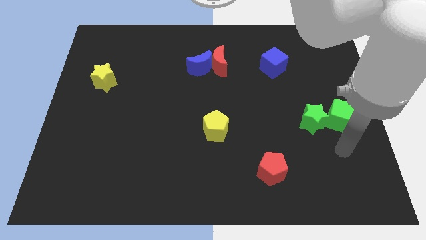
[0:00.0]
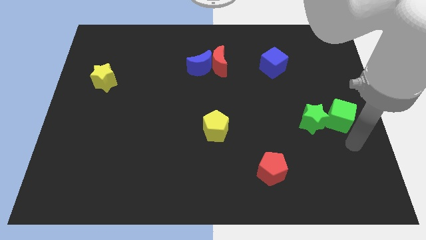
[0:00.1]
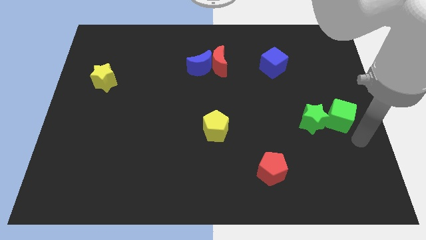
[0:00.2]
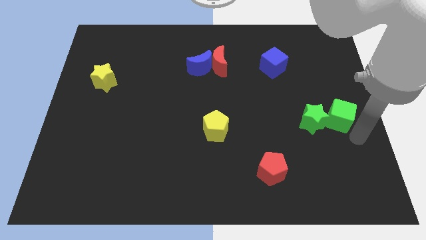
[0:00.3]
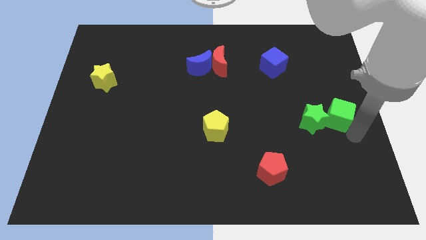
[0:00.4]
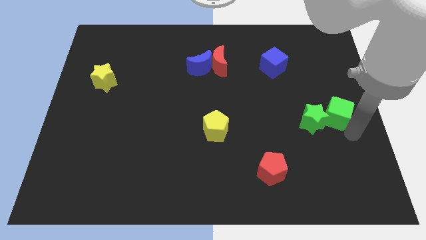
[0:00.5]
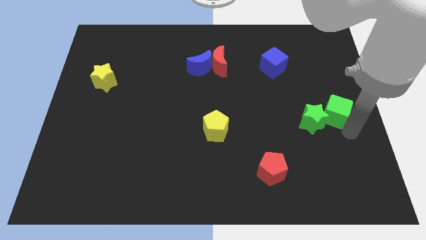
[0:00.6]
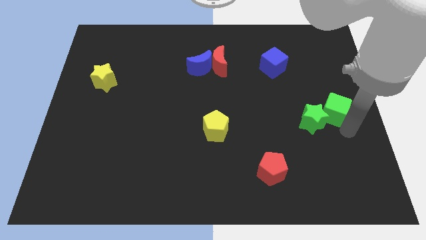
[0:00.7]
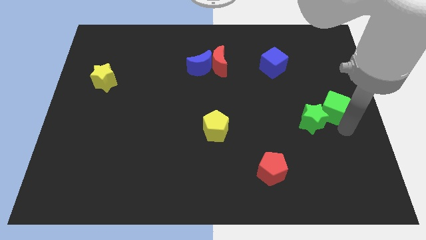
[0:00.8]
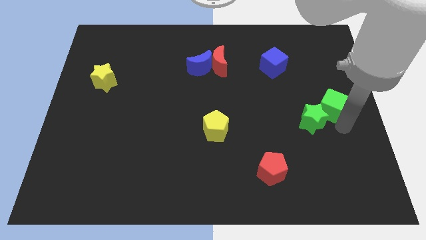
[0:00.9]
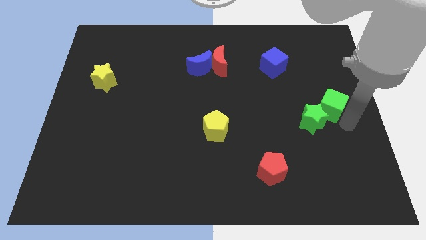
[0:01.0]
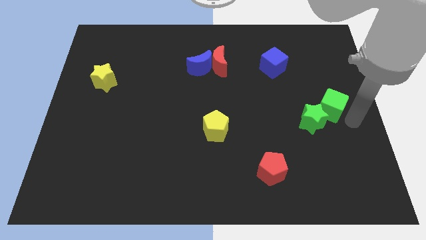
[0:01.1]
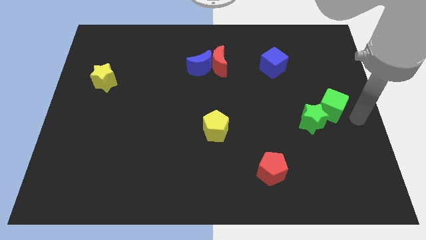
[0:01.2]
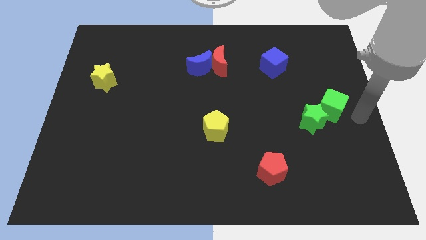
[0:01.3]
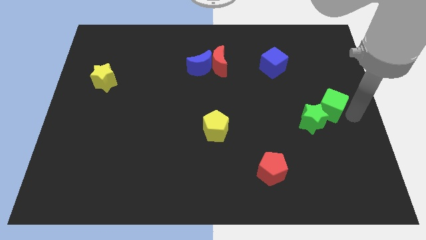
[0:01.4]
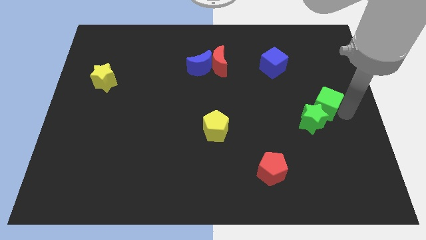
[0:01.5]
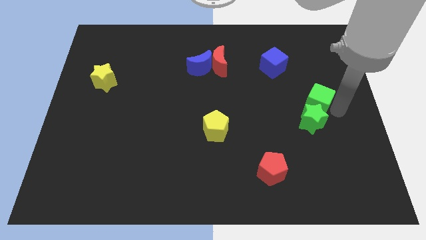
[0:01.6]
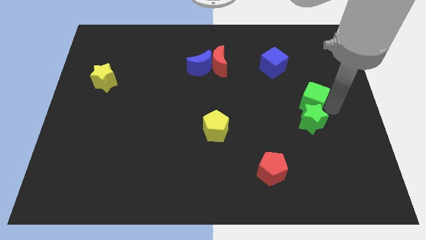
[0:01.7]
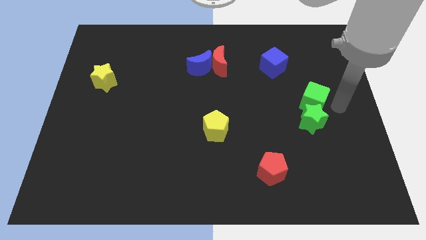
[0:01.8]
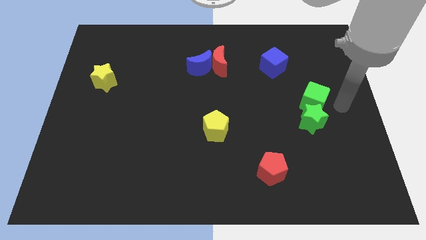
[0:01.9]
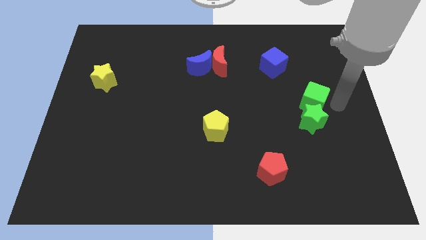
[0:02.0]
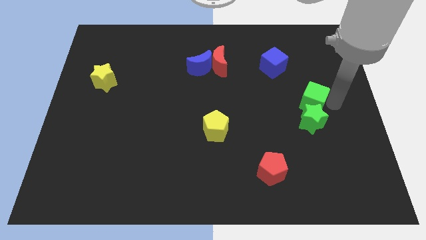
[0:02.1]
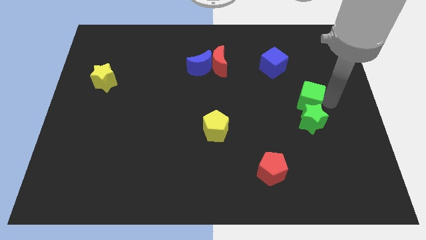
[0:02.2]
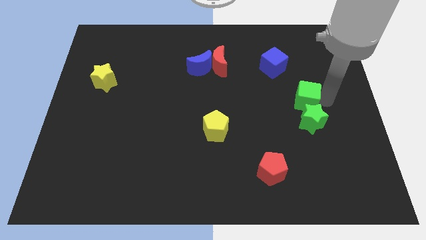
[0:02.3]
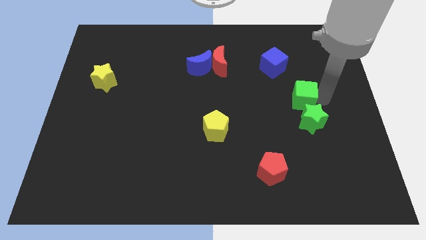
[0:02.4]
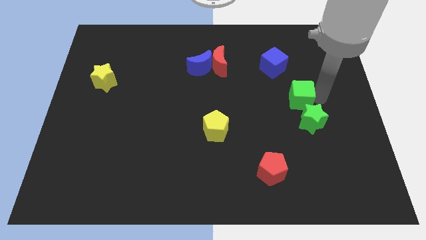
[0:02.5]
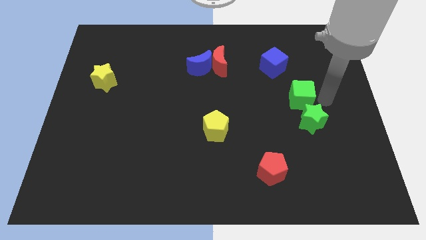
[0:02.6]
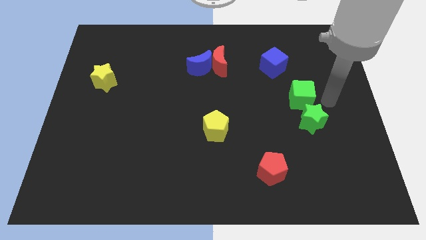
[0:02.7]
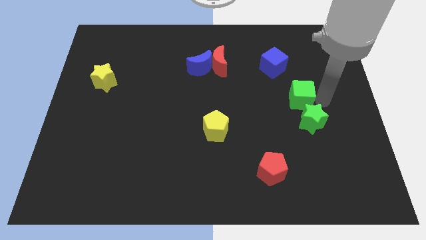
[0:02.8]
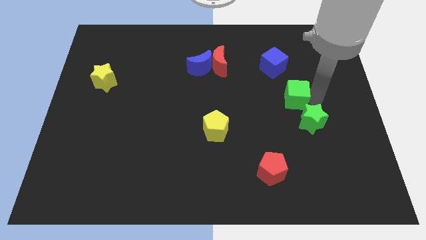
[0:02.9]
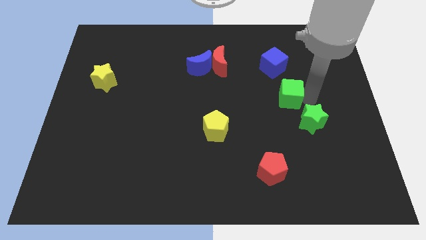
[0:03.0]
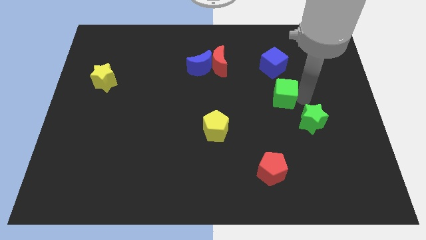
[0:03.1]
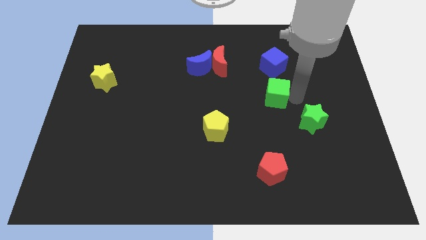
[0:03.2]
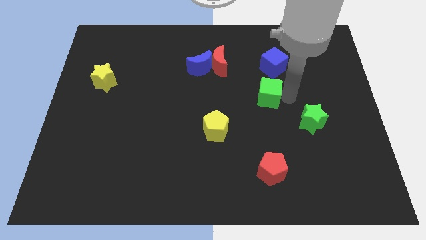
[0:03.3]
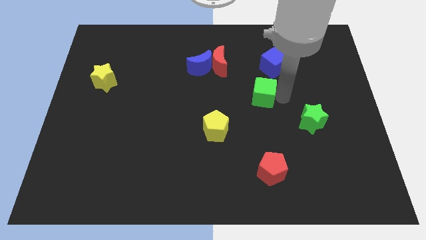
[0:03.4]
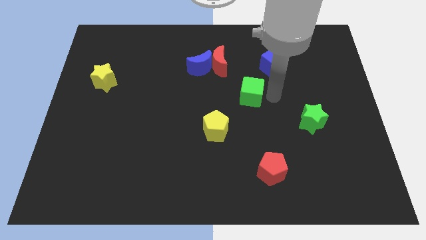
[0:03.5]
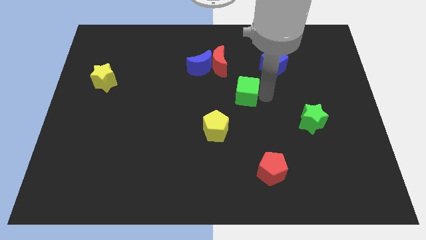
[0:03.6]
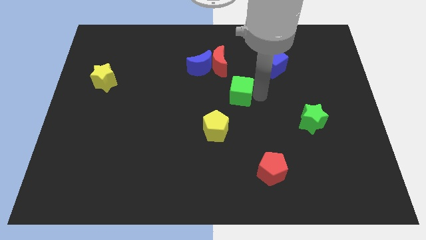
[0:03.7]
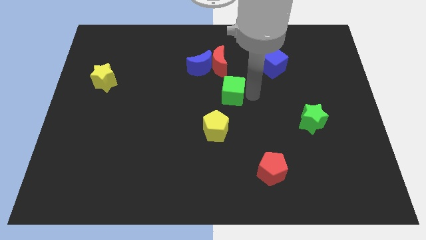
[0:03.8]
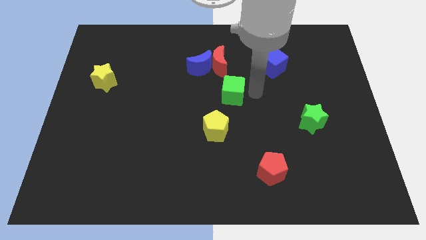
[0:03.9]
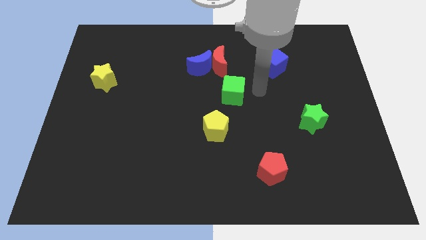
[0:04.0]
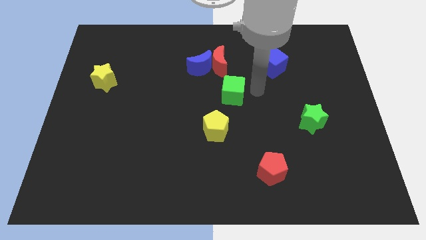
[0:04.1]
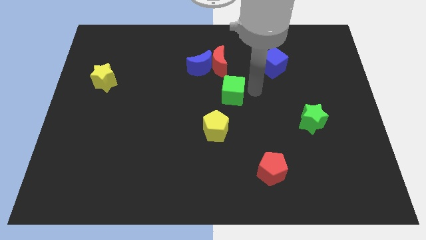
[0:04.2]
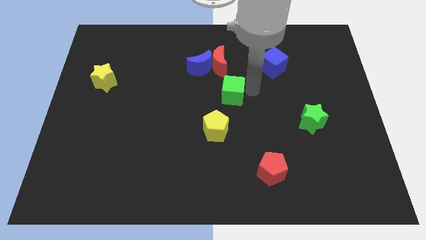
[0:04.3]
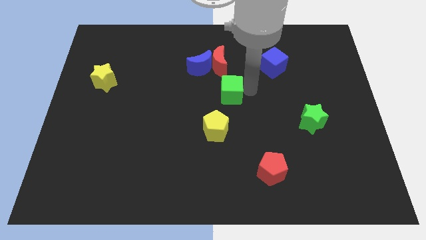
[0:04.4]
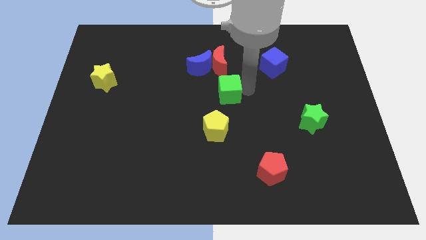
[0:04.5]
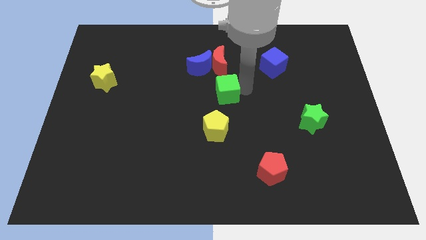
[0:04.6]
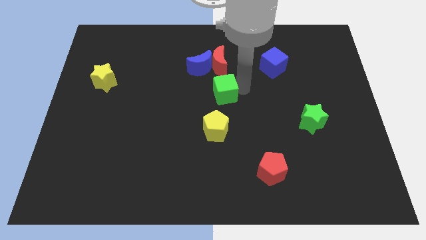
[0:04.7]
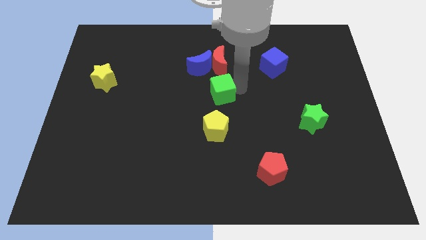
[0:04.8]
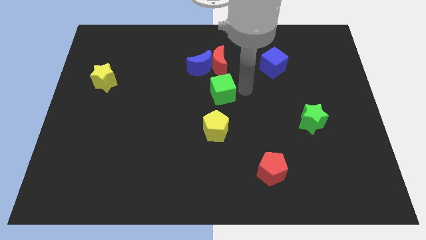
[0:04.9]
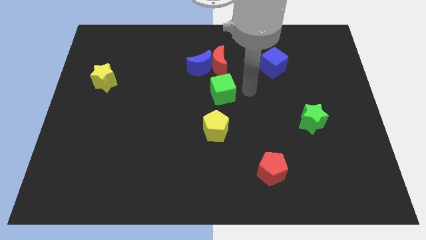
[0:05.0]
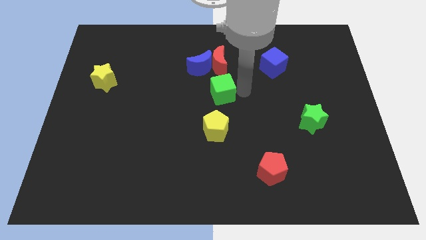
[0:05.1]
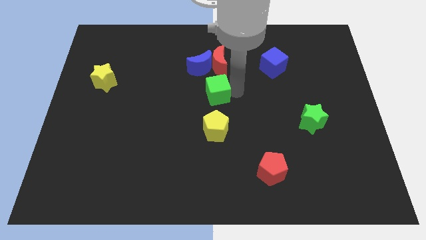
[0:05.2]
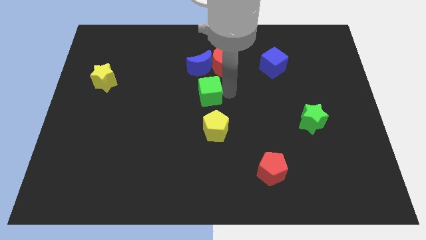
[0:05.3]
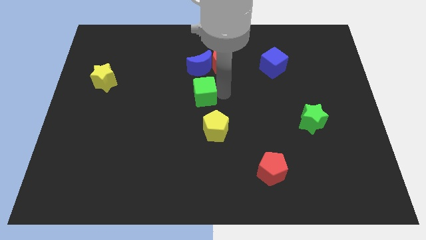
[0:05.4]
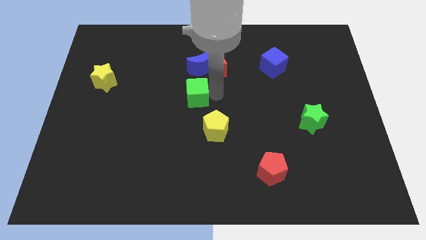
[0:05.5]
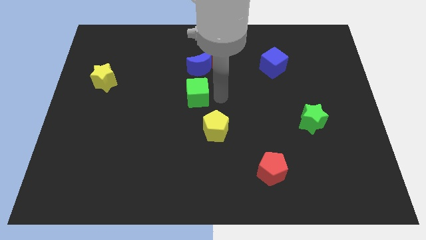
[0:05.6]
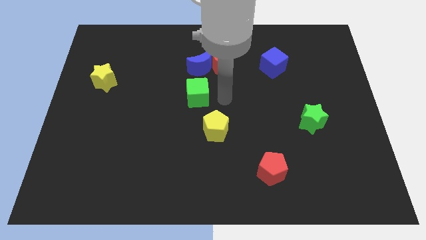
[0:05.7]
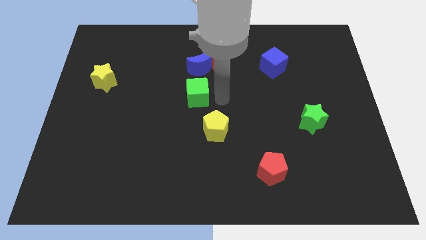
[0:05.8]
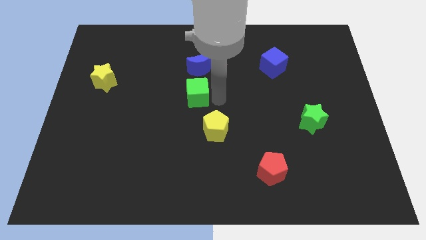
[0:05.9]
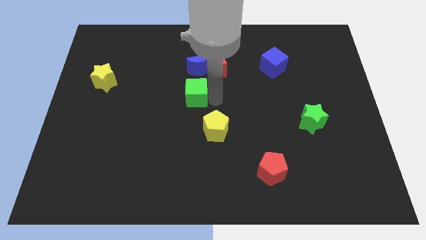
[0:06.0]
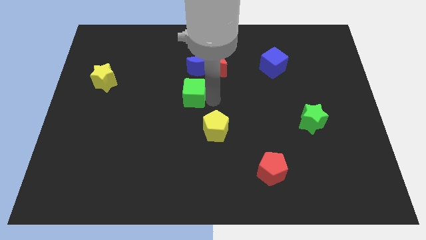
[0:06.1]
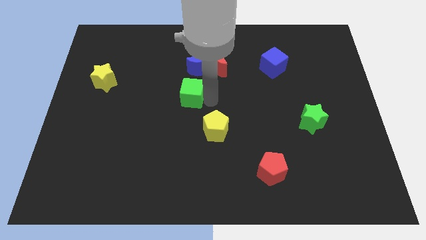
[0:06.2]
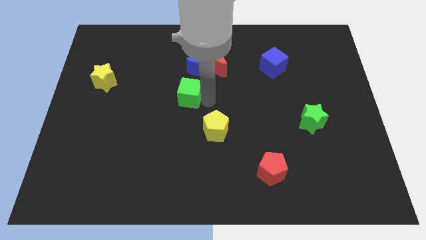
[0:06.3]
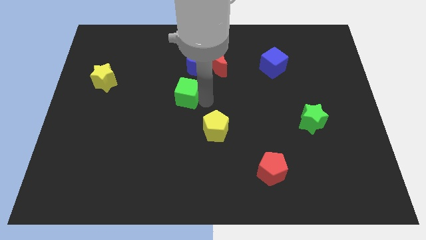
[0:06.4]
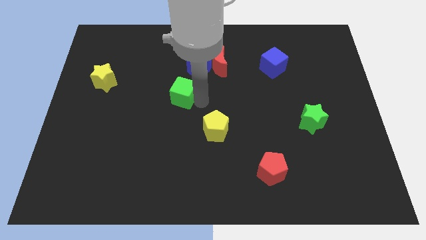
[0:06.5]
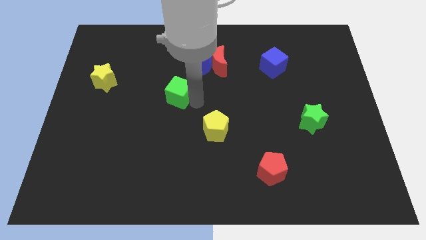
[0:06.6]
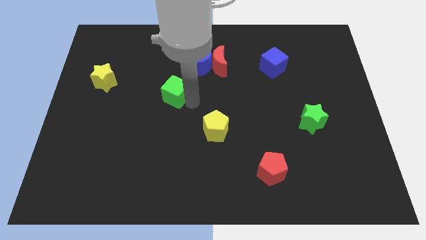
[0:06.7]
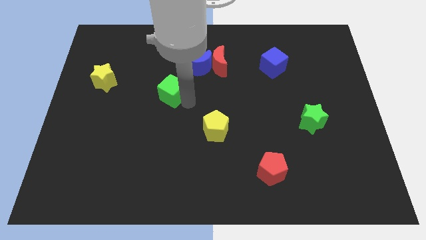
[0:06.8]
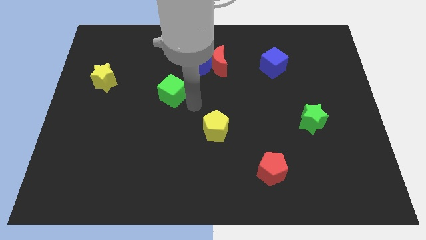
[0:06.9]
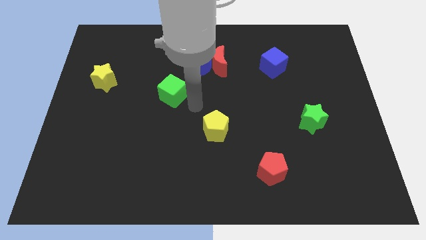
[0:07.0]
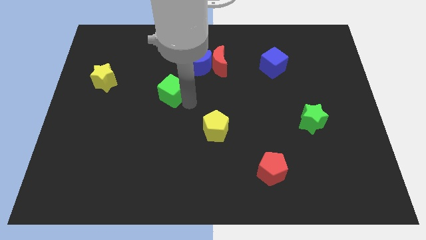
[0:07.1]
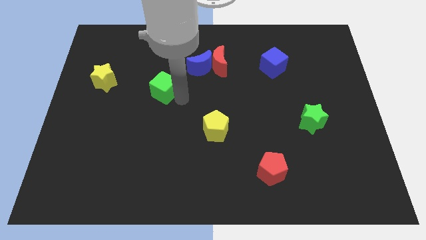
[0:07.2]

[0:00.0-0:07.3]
push the green cube to the right side of the yellow star
